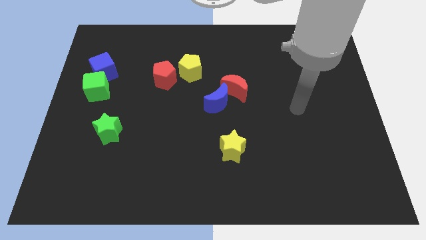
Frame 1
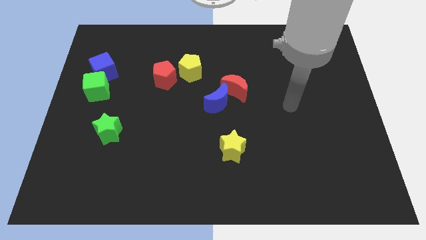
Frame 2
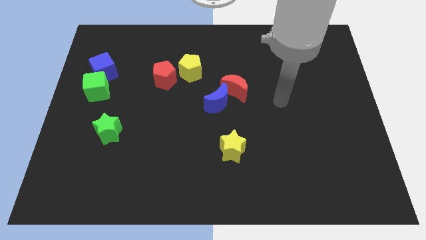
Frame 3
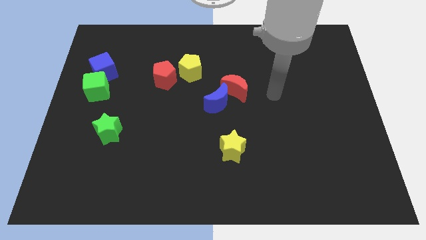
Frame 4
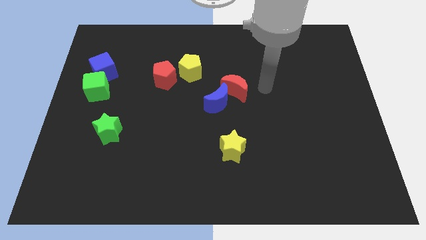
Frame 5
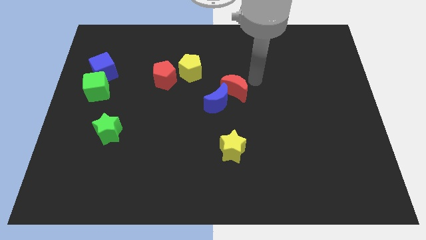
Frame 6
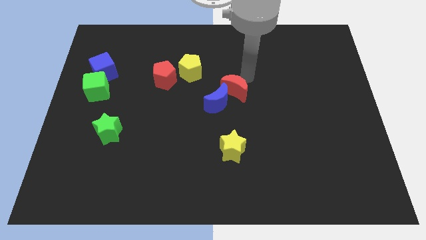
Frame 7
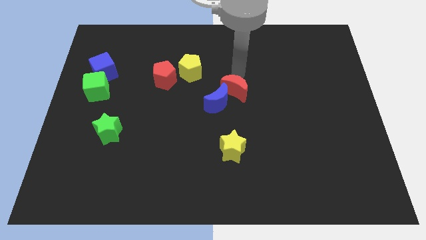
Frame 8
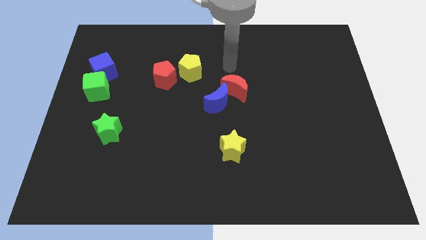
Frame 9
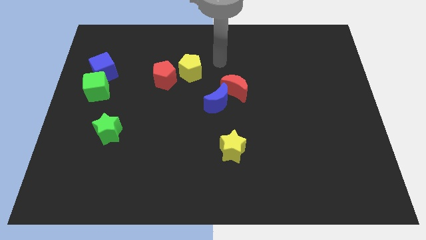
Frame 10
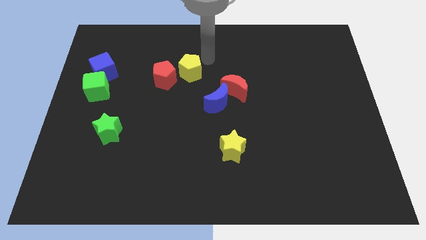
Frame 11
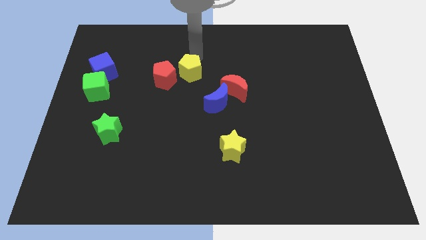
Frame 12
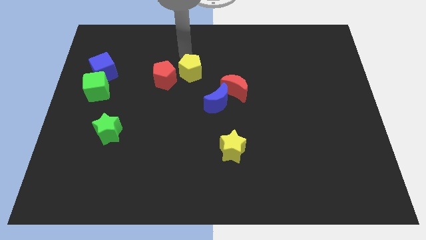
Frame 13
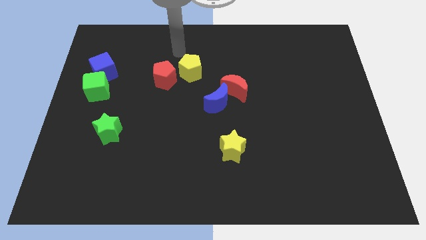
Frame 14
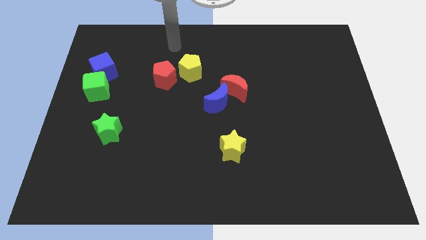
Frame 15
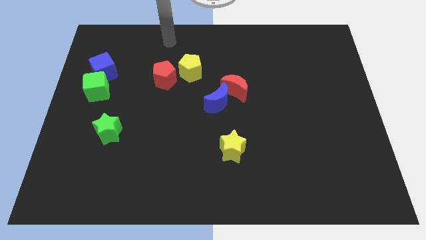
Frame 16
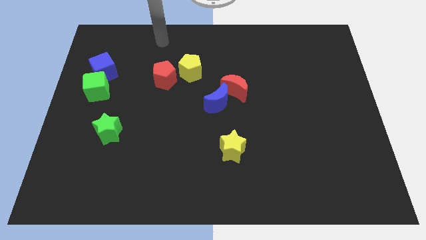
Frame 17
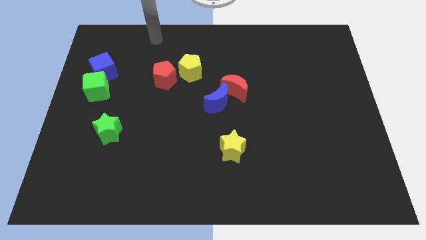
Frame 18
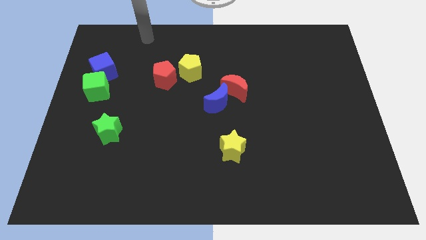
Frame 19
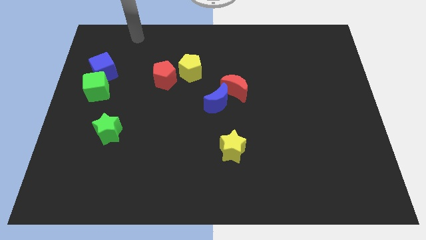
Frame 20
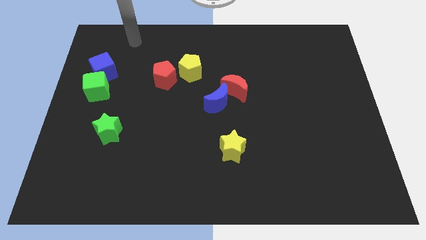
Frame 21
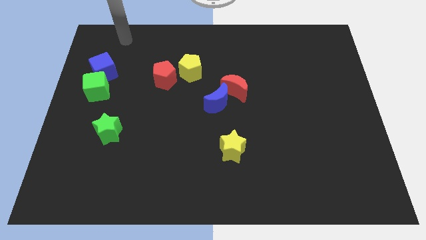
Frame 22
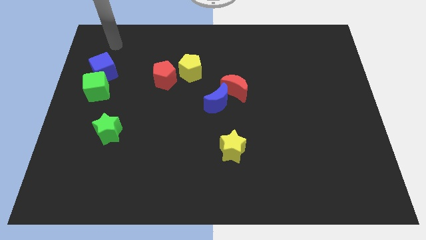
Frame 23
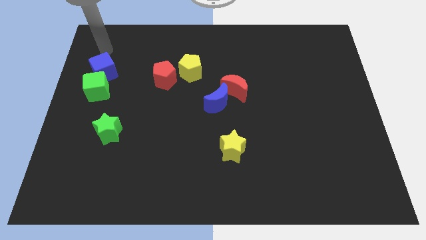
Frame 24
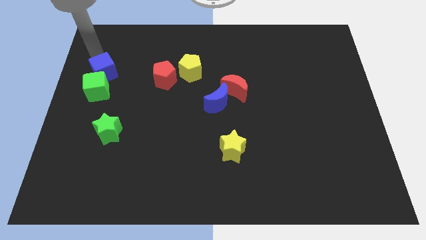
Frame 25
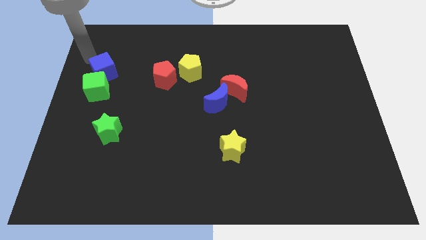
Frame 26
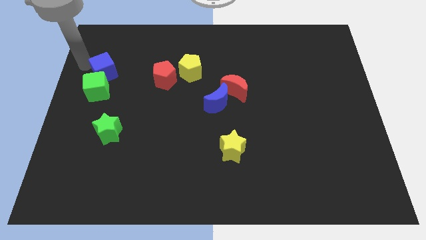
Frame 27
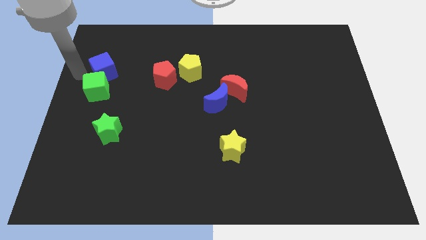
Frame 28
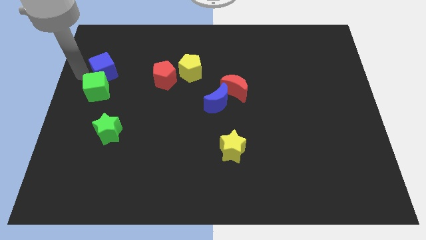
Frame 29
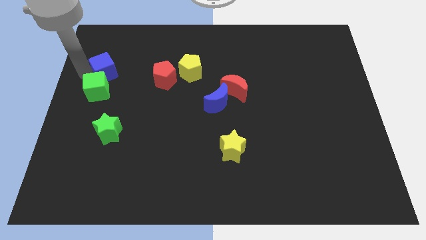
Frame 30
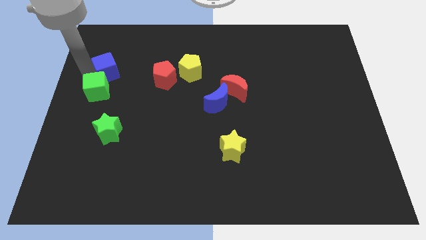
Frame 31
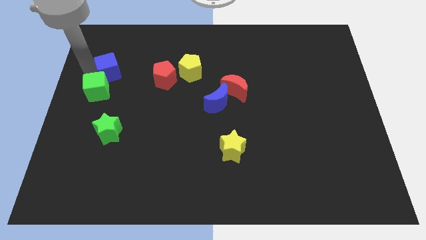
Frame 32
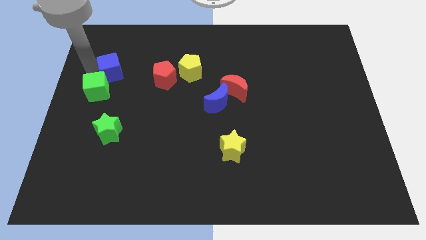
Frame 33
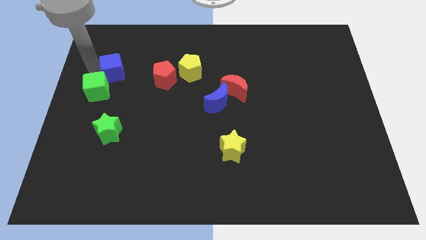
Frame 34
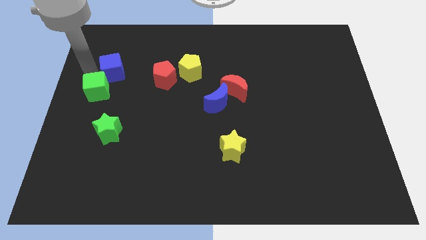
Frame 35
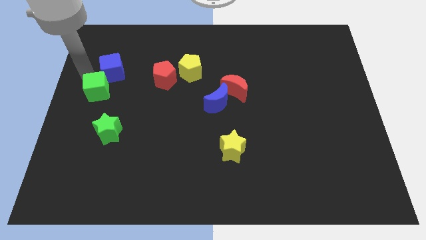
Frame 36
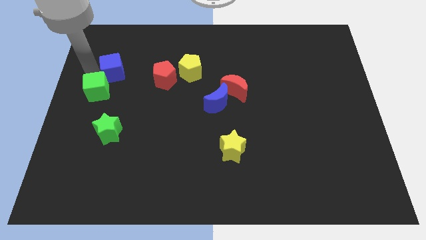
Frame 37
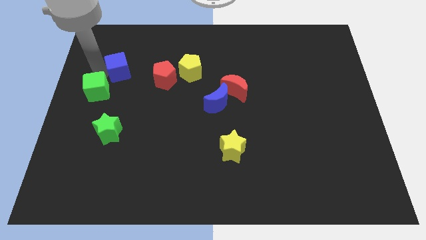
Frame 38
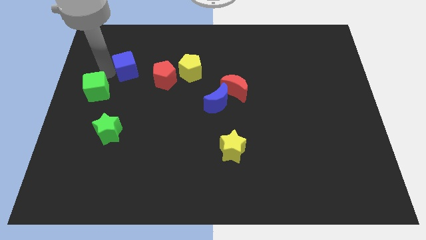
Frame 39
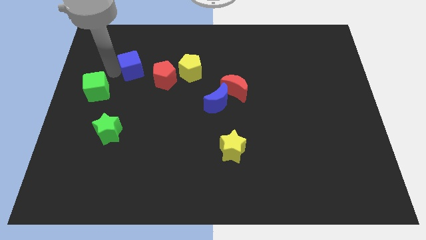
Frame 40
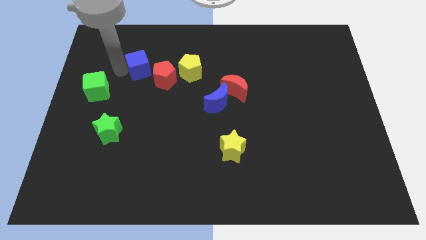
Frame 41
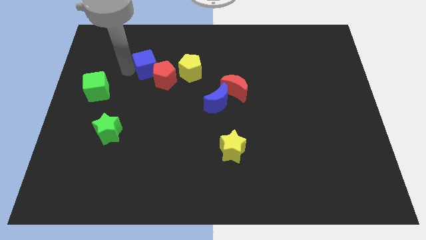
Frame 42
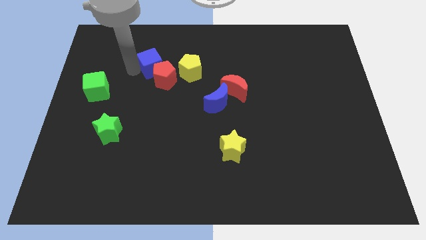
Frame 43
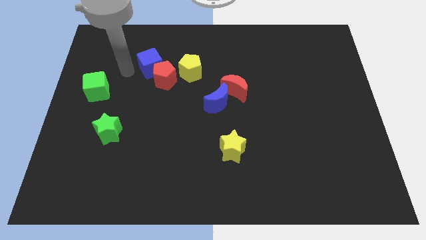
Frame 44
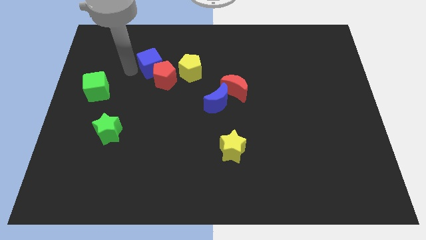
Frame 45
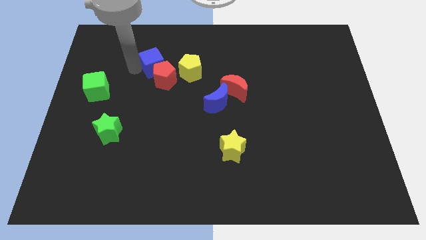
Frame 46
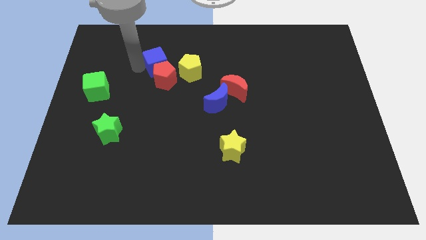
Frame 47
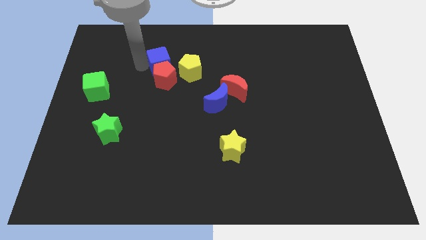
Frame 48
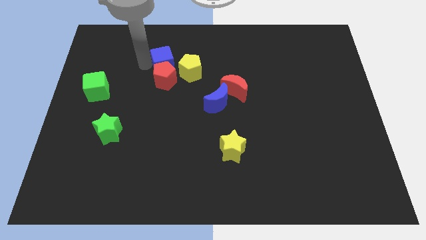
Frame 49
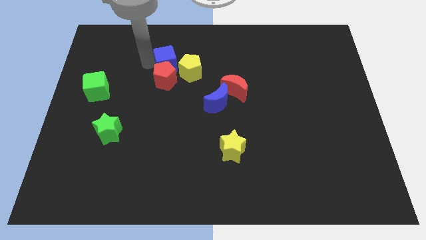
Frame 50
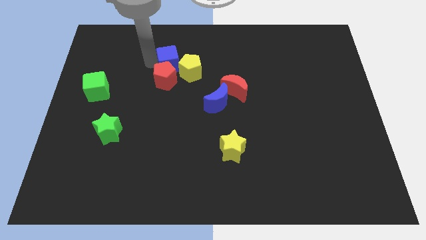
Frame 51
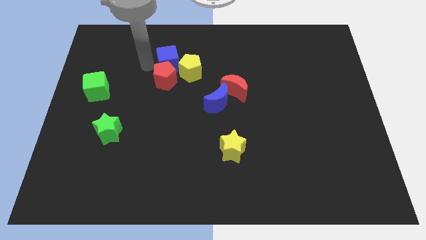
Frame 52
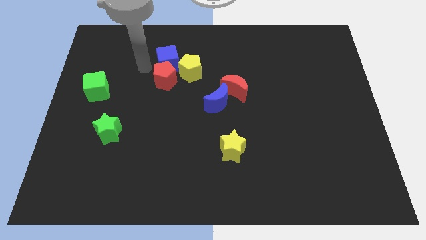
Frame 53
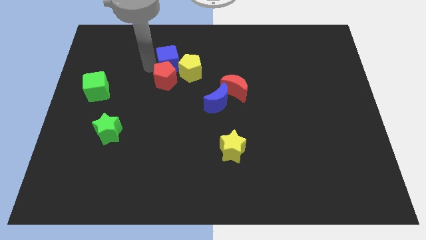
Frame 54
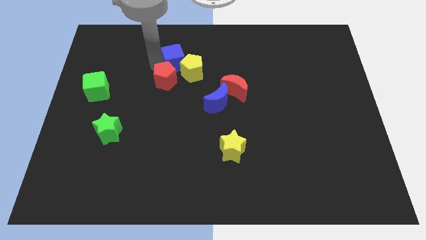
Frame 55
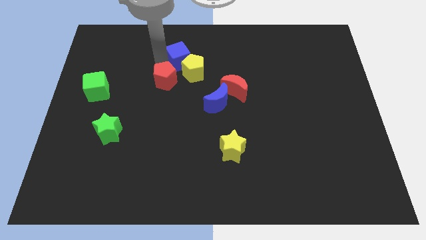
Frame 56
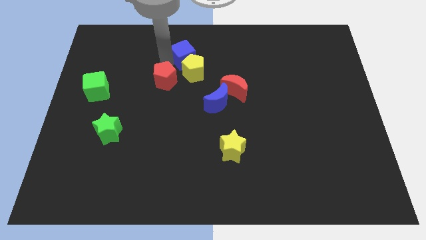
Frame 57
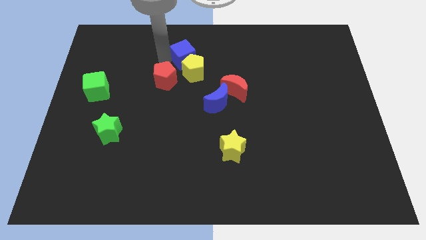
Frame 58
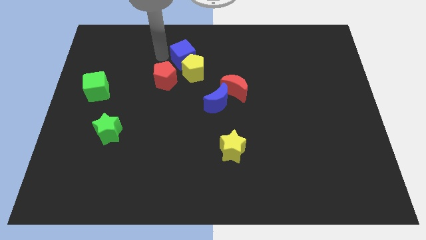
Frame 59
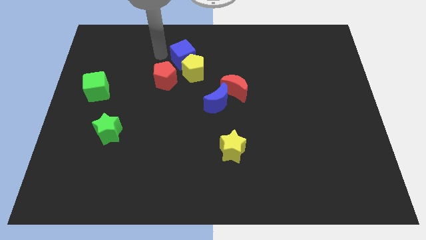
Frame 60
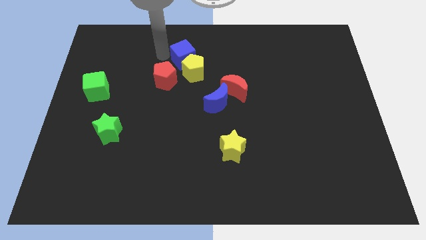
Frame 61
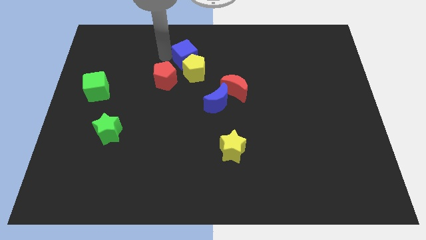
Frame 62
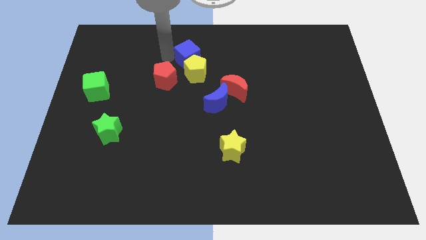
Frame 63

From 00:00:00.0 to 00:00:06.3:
move the blue cube right

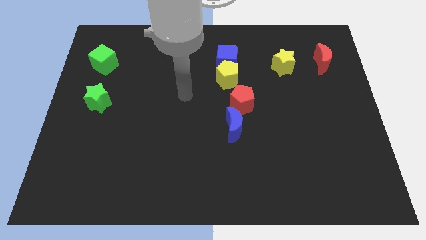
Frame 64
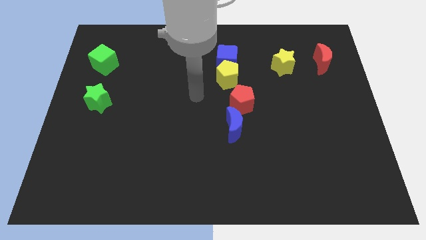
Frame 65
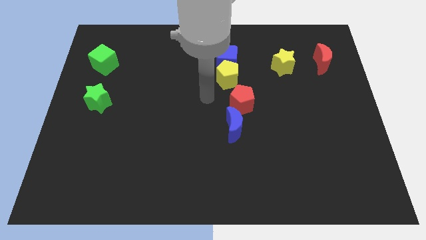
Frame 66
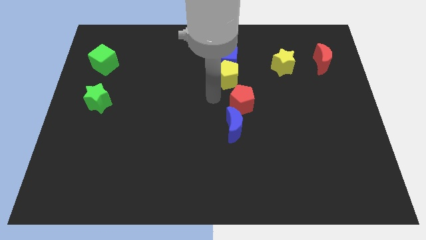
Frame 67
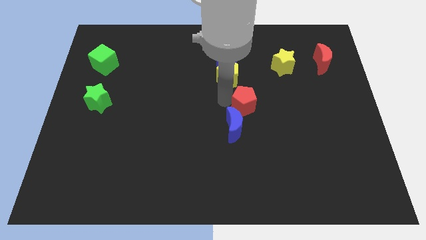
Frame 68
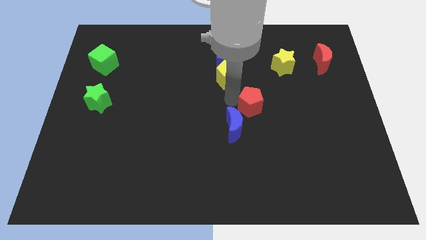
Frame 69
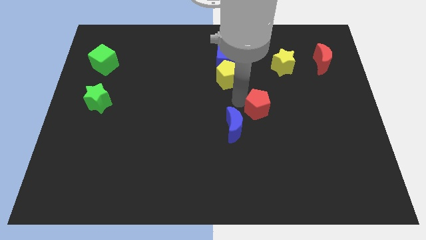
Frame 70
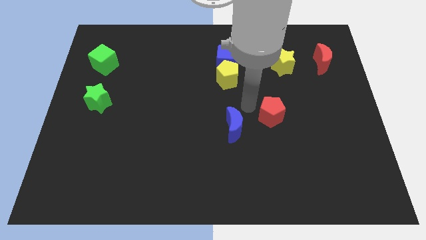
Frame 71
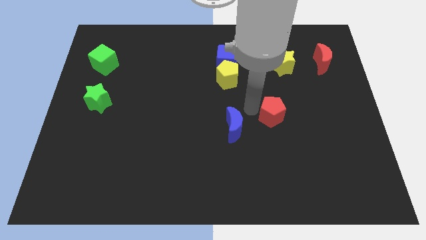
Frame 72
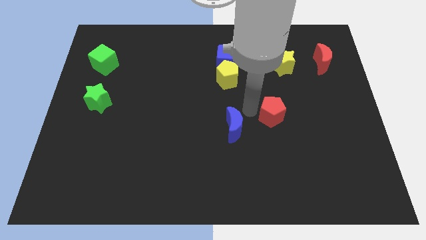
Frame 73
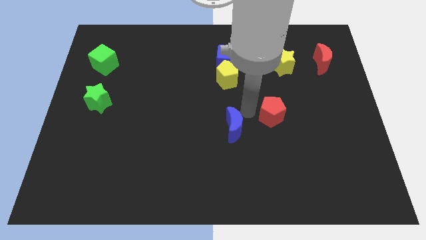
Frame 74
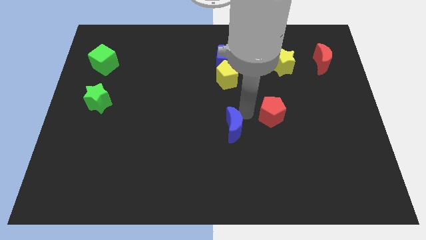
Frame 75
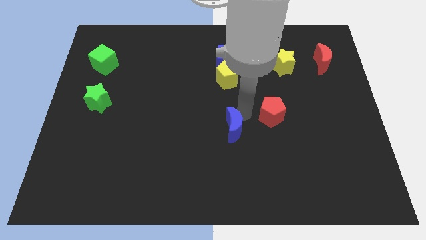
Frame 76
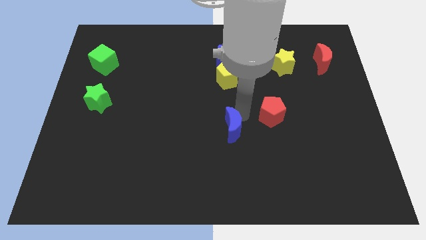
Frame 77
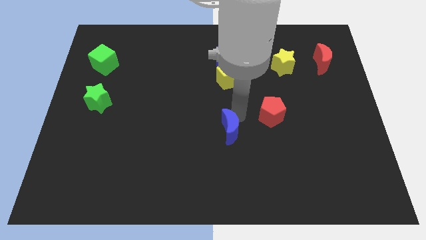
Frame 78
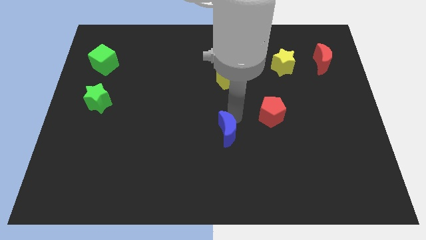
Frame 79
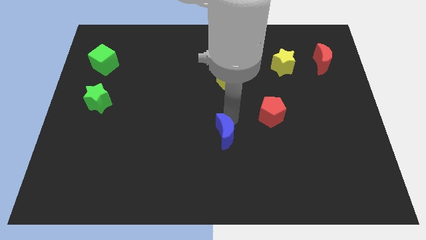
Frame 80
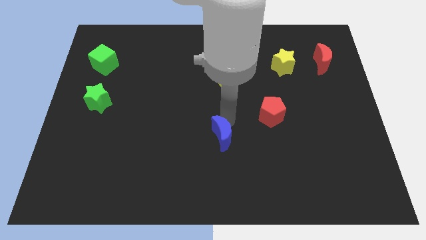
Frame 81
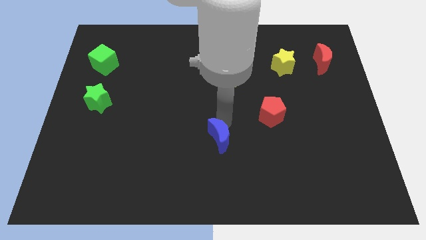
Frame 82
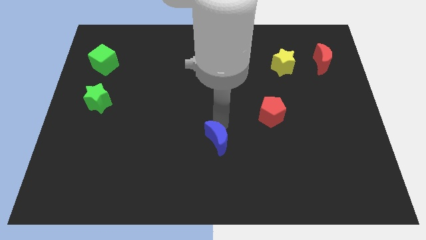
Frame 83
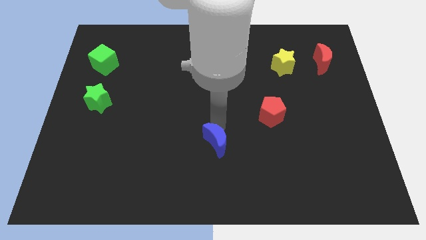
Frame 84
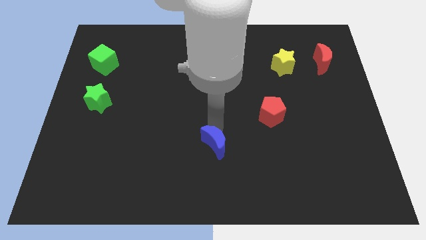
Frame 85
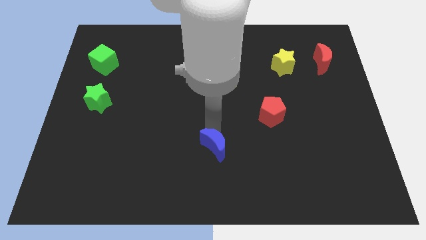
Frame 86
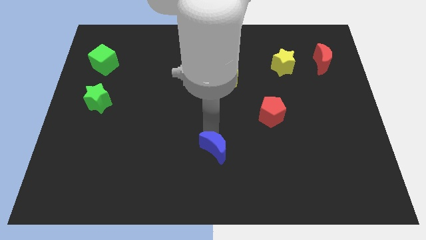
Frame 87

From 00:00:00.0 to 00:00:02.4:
move the blue moon slightly down and then left
